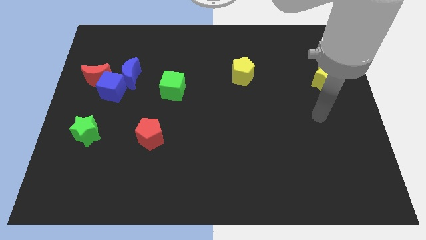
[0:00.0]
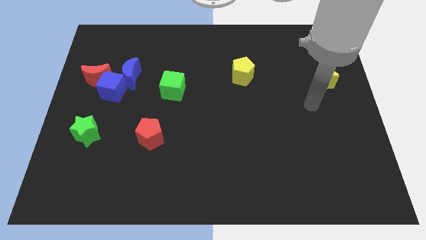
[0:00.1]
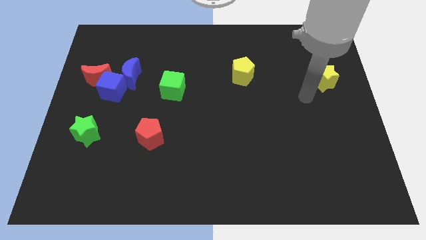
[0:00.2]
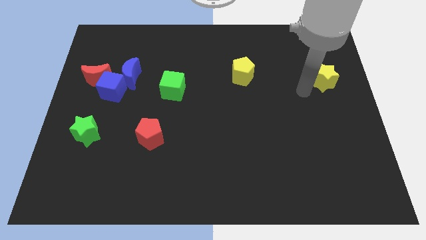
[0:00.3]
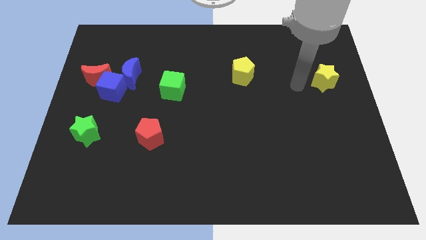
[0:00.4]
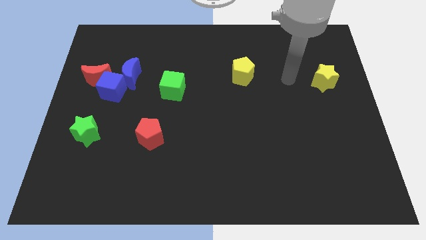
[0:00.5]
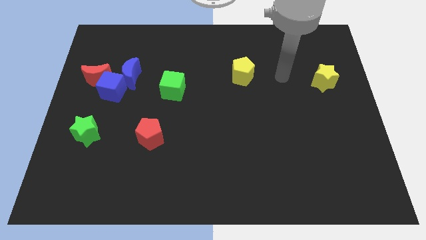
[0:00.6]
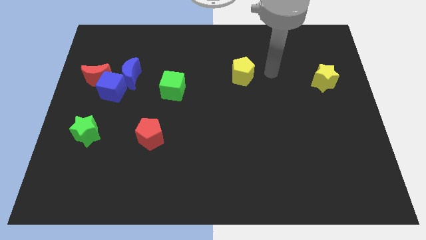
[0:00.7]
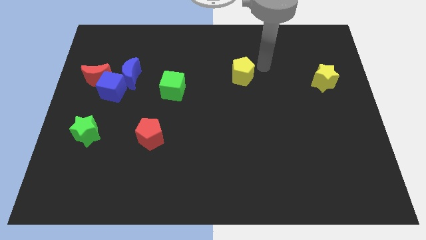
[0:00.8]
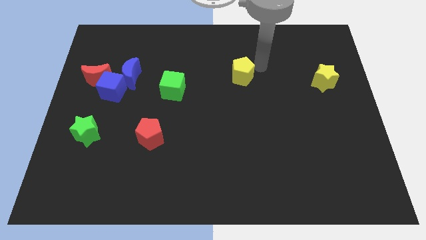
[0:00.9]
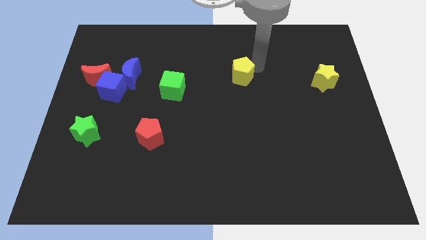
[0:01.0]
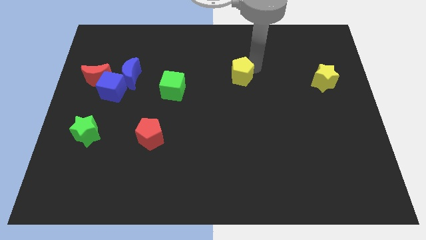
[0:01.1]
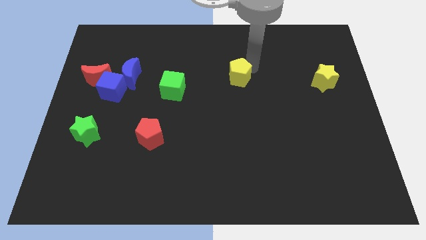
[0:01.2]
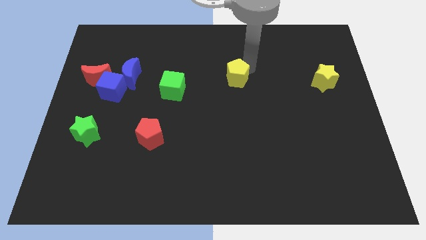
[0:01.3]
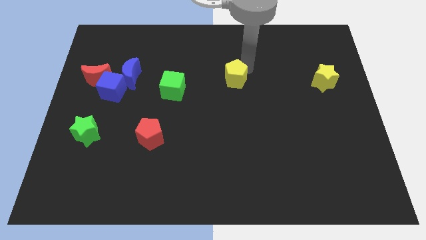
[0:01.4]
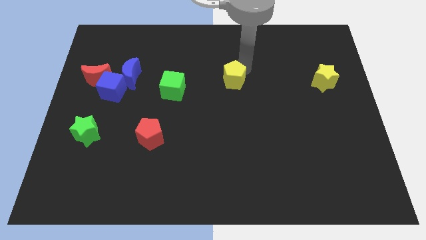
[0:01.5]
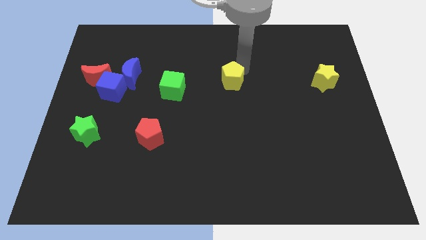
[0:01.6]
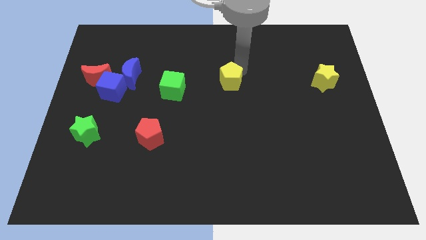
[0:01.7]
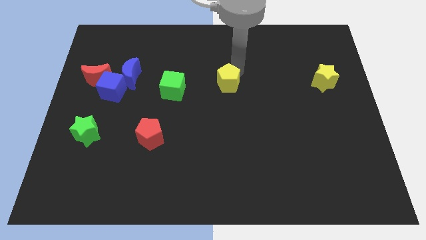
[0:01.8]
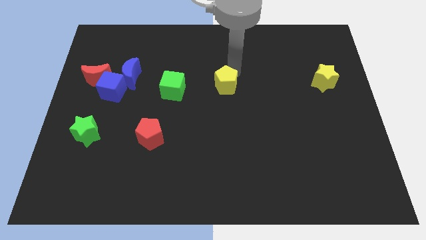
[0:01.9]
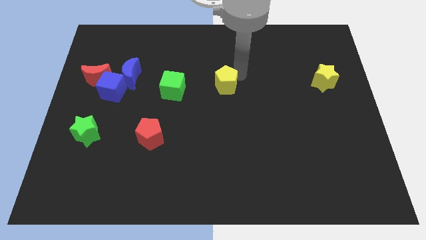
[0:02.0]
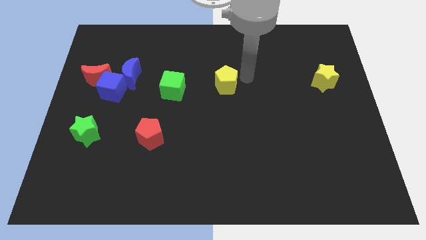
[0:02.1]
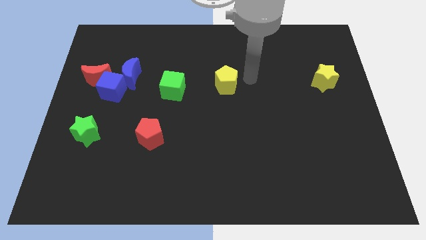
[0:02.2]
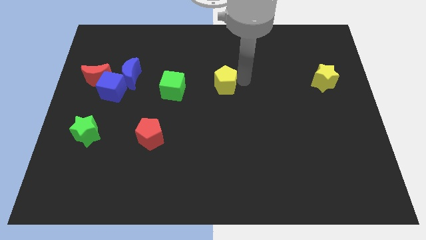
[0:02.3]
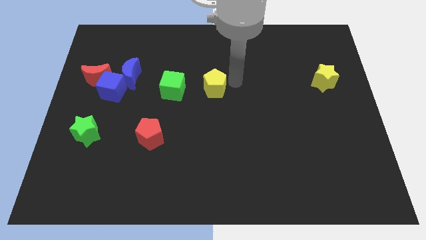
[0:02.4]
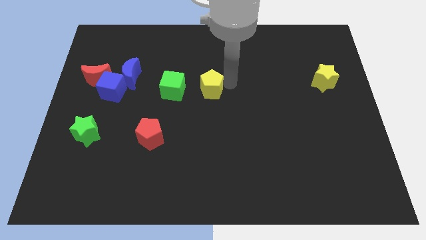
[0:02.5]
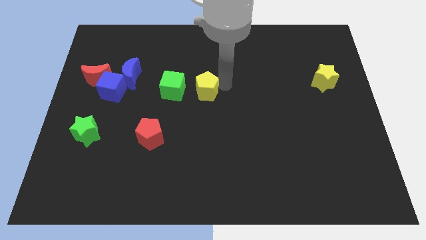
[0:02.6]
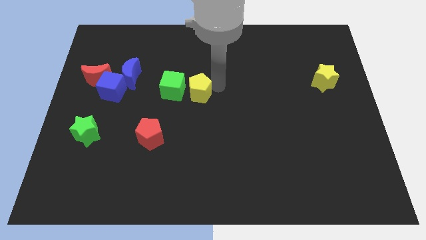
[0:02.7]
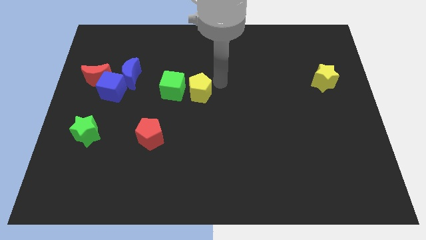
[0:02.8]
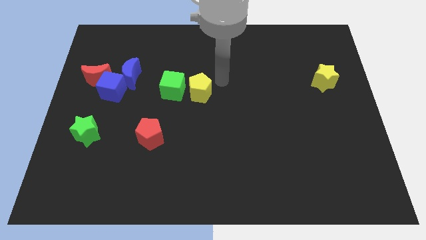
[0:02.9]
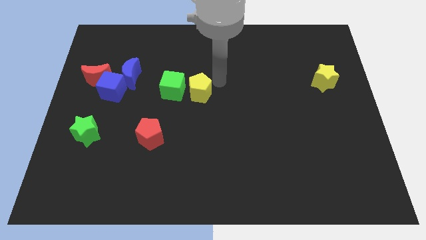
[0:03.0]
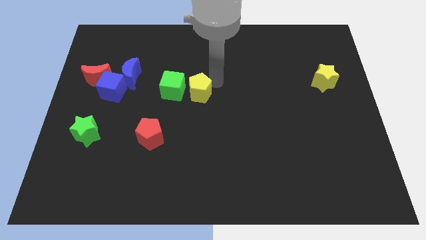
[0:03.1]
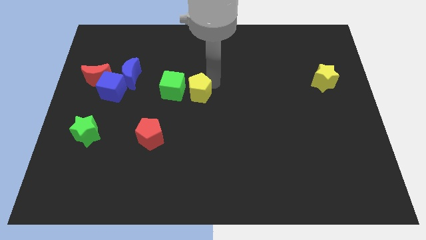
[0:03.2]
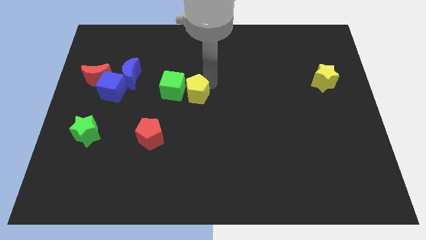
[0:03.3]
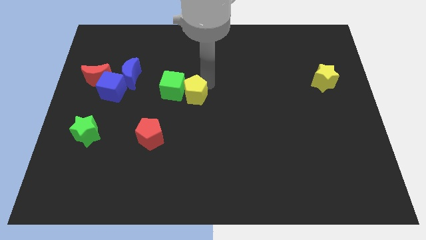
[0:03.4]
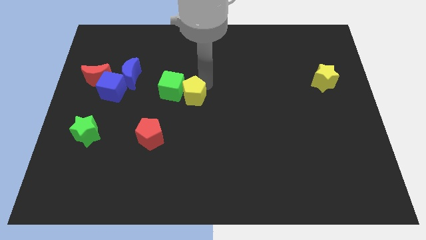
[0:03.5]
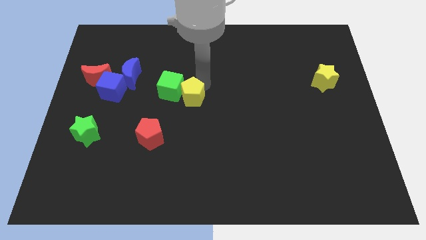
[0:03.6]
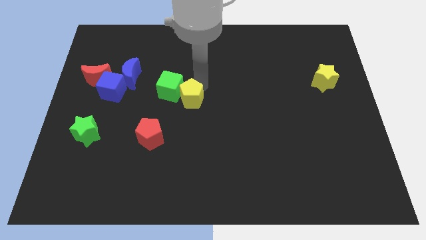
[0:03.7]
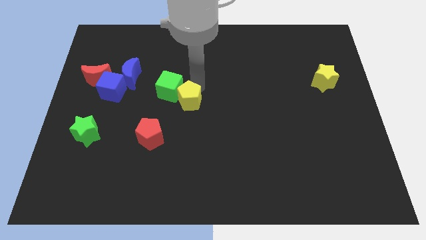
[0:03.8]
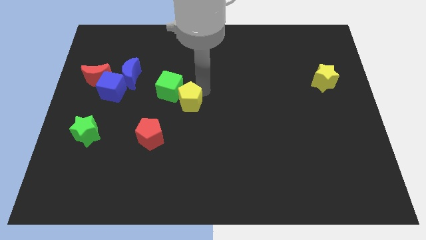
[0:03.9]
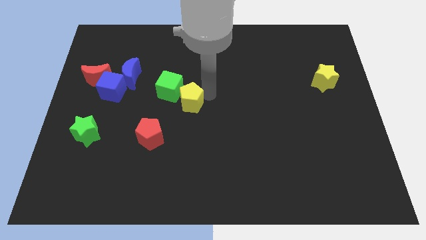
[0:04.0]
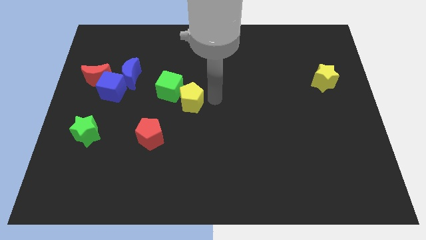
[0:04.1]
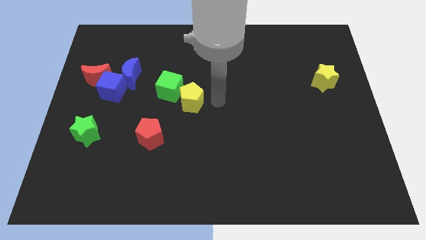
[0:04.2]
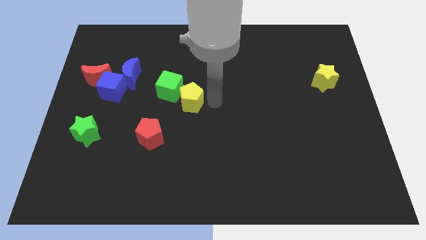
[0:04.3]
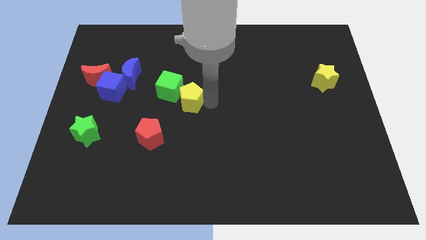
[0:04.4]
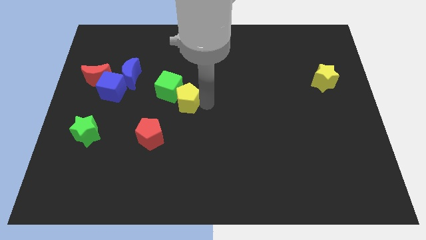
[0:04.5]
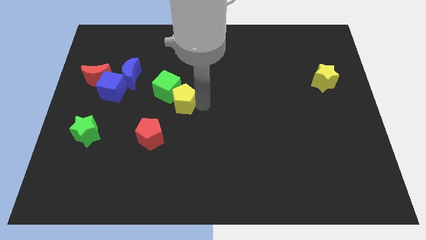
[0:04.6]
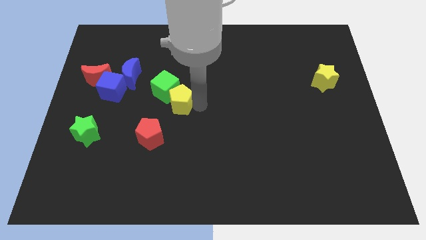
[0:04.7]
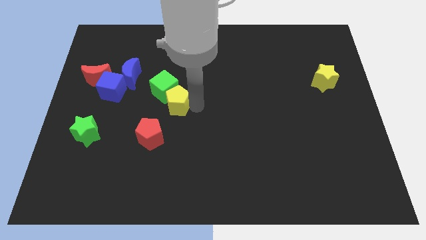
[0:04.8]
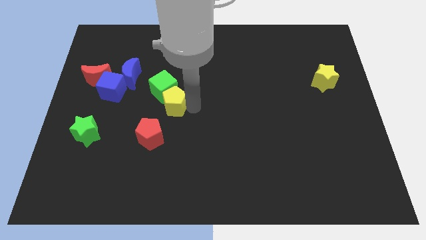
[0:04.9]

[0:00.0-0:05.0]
slide the yellow pentagon above the red pentagon

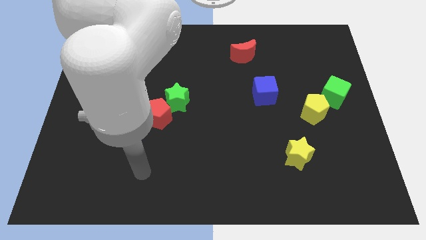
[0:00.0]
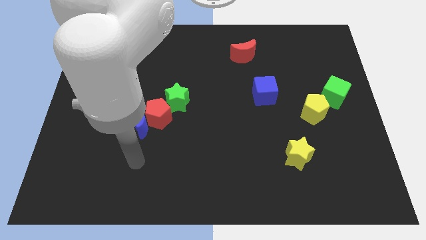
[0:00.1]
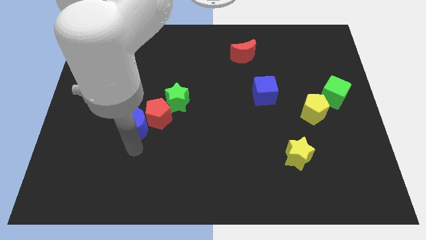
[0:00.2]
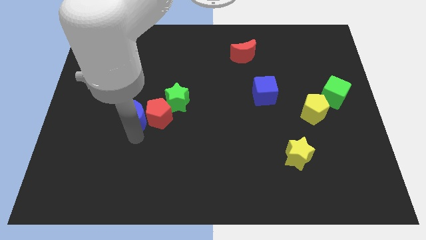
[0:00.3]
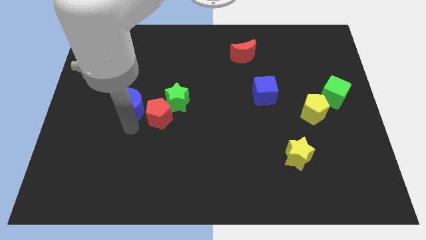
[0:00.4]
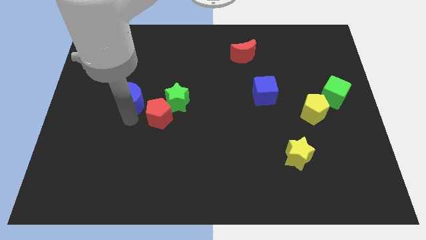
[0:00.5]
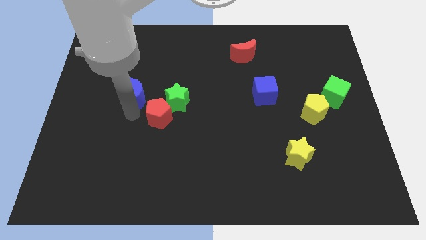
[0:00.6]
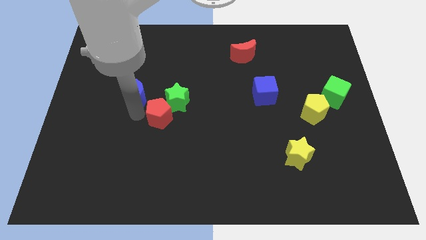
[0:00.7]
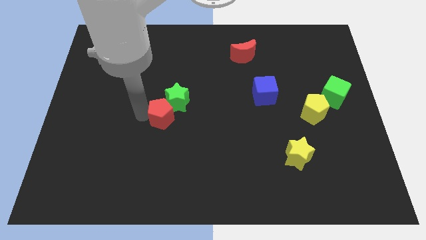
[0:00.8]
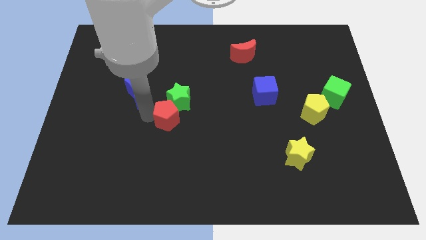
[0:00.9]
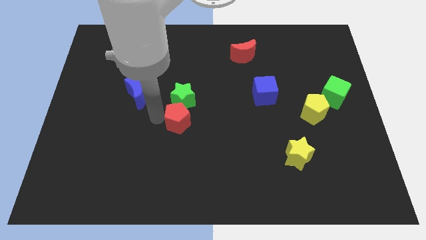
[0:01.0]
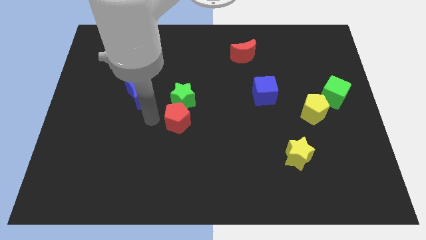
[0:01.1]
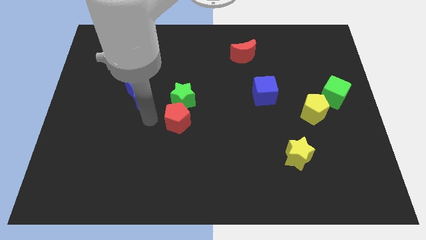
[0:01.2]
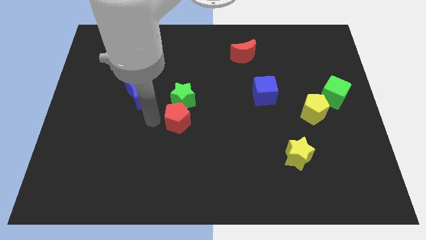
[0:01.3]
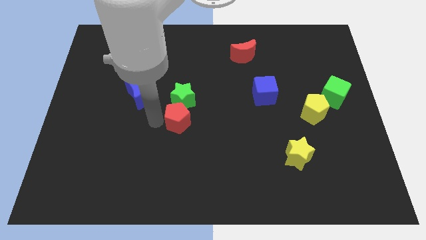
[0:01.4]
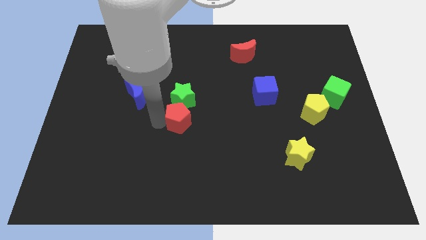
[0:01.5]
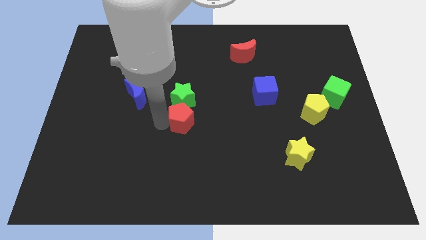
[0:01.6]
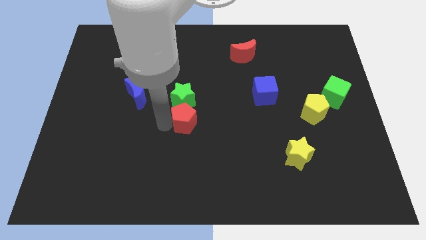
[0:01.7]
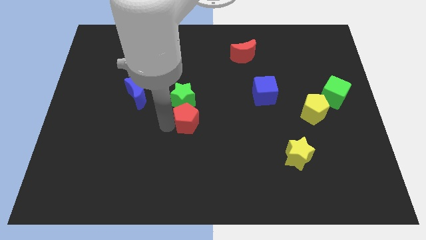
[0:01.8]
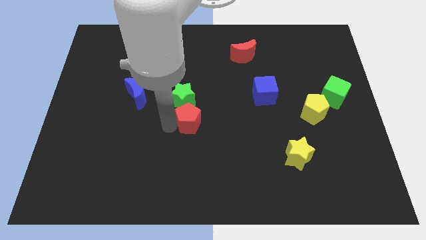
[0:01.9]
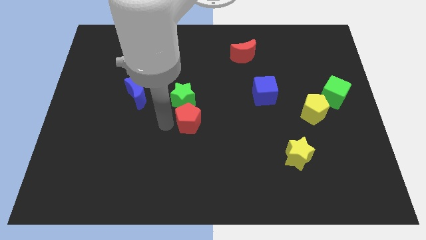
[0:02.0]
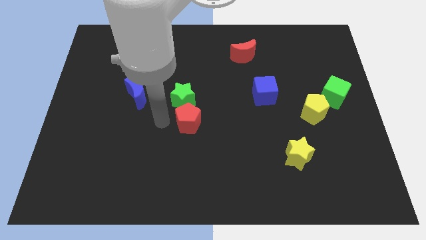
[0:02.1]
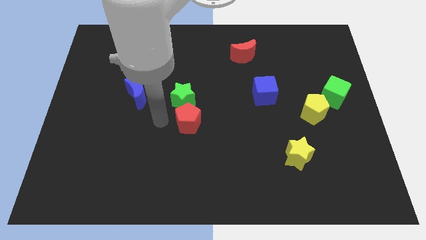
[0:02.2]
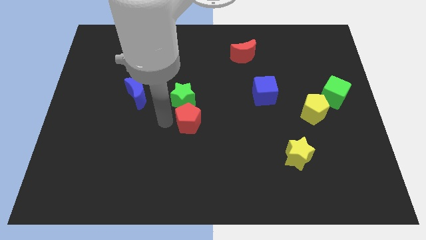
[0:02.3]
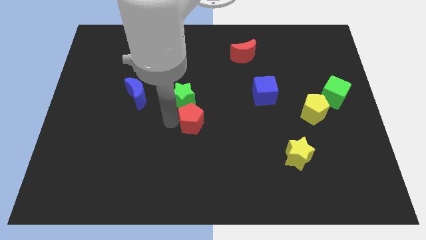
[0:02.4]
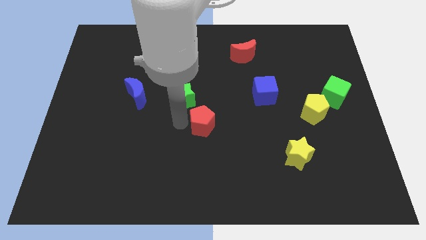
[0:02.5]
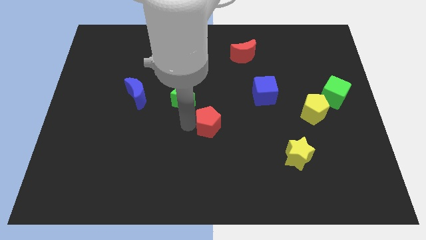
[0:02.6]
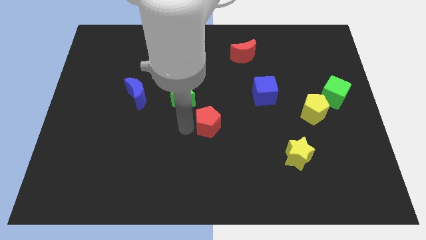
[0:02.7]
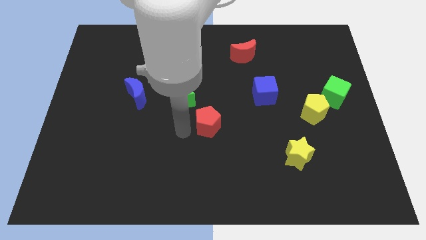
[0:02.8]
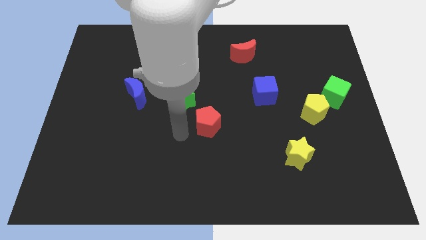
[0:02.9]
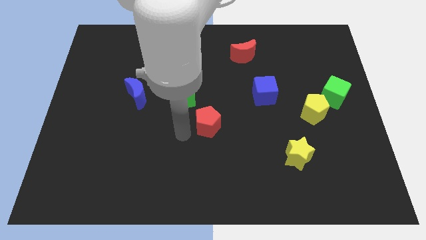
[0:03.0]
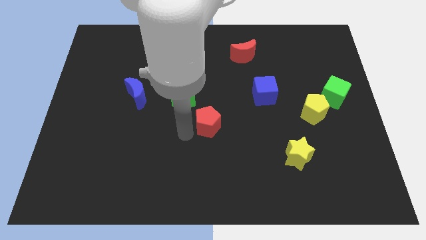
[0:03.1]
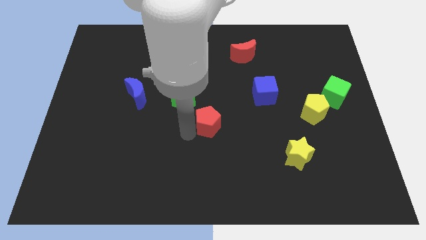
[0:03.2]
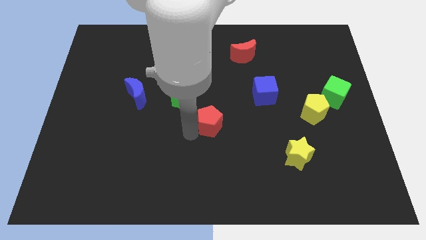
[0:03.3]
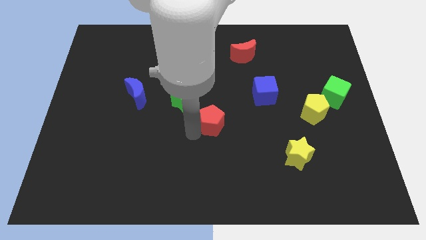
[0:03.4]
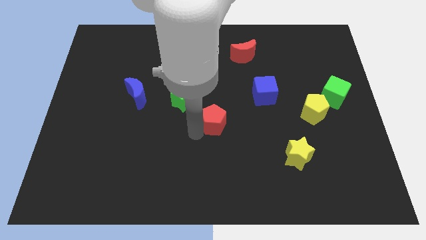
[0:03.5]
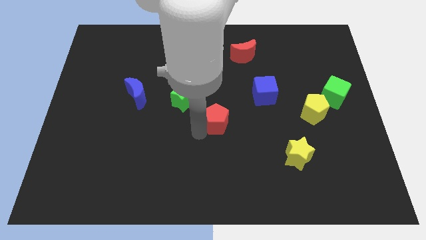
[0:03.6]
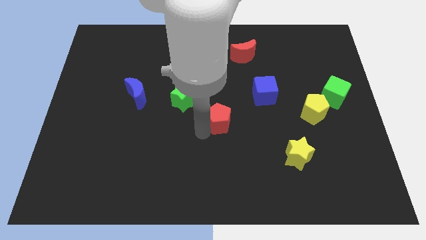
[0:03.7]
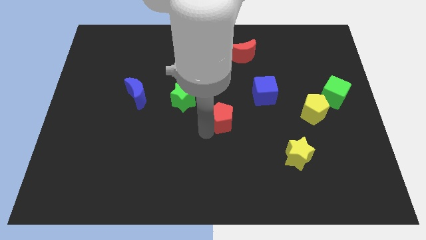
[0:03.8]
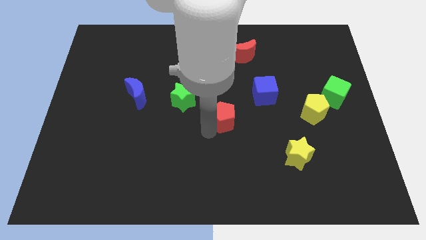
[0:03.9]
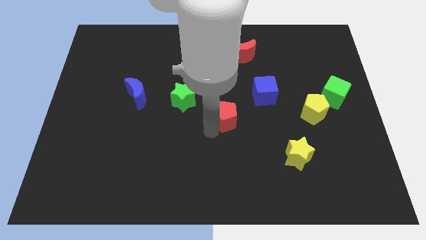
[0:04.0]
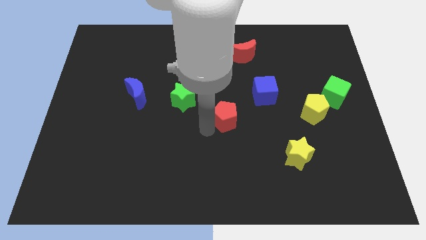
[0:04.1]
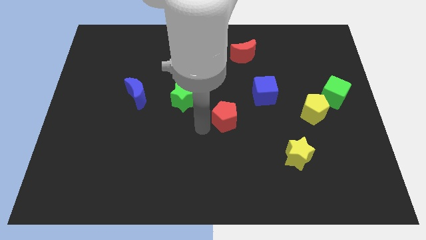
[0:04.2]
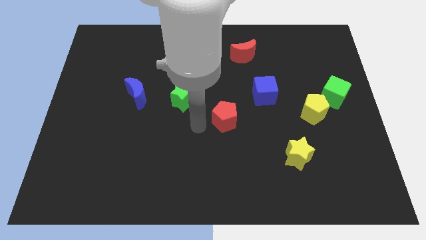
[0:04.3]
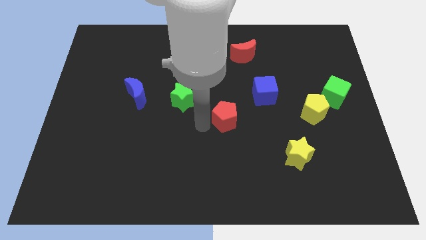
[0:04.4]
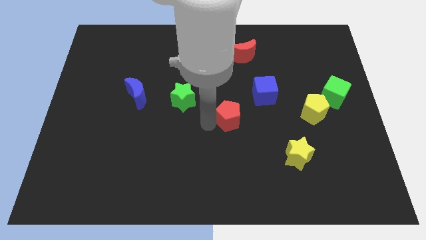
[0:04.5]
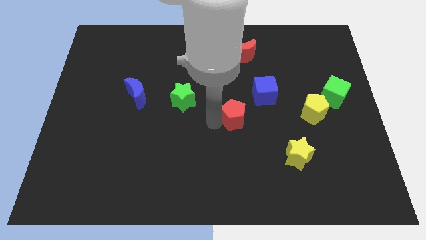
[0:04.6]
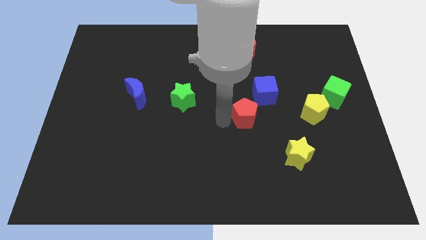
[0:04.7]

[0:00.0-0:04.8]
push the red pentagon to the left of the yellow pentagon
